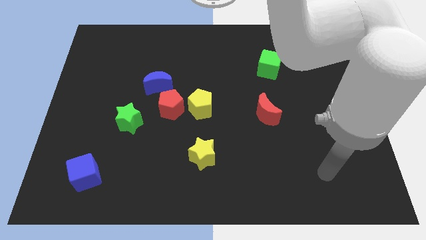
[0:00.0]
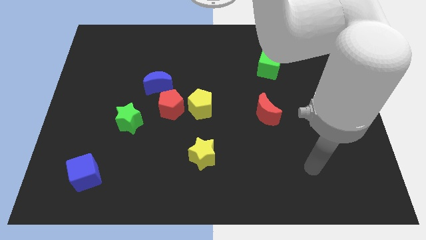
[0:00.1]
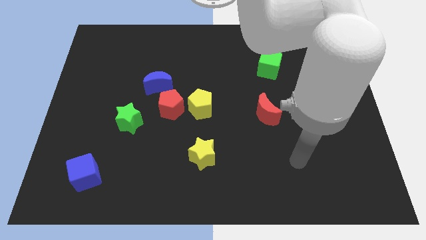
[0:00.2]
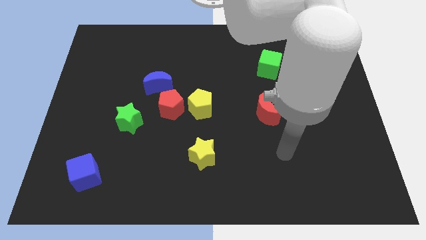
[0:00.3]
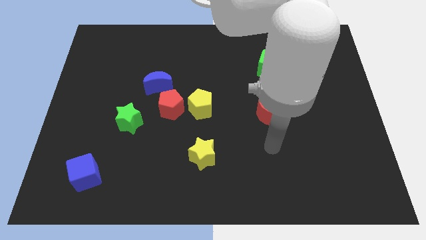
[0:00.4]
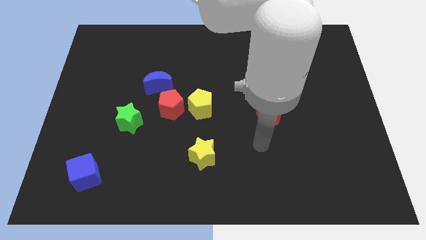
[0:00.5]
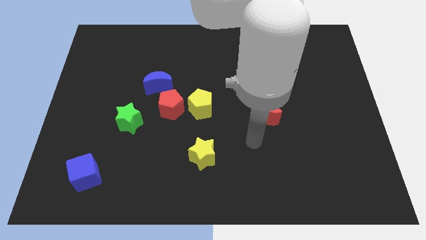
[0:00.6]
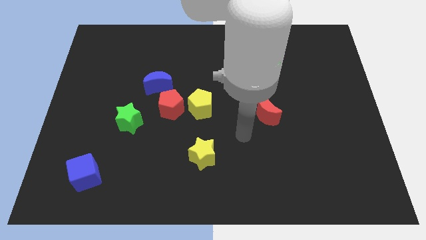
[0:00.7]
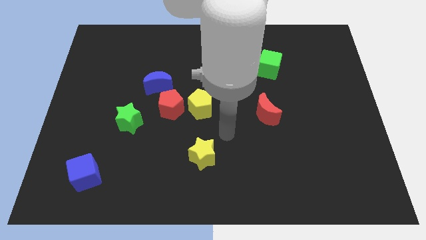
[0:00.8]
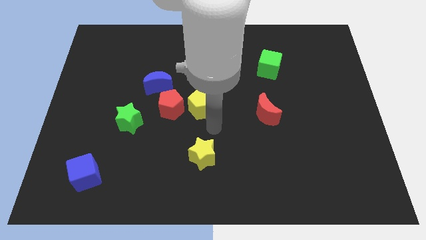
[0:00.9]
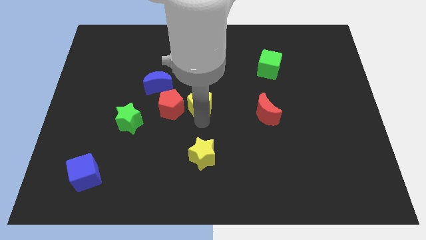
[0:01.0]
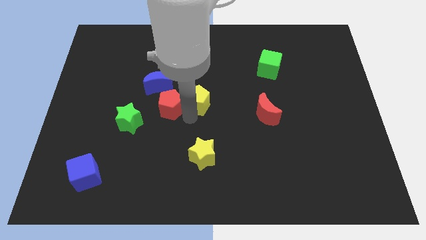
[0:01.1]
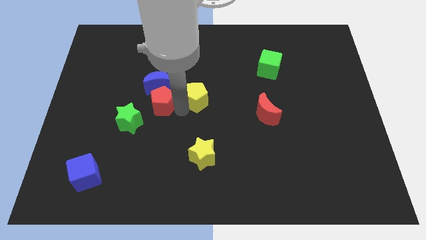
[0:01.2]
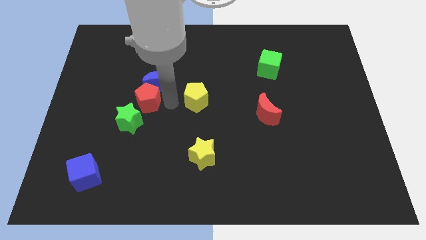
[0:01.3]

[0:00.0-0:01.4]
pull the yellow pentagon apart from the red pentagon

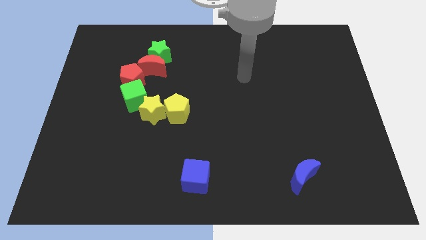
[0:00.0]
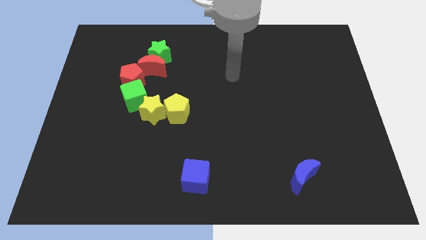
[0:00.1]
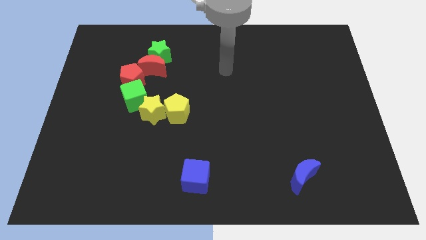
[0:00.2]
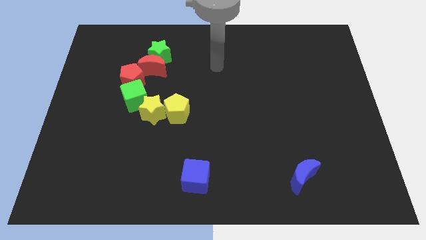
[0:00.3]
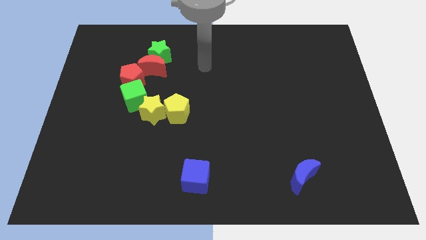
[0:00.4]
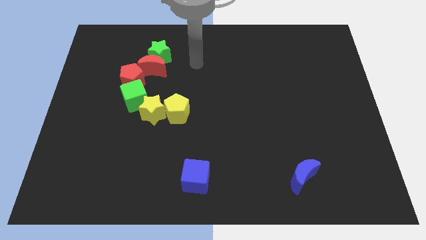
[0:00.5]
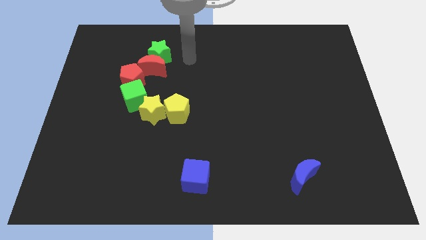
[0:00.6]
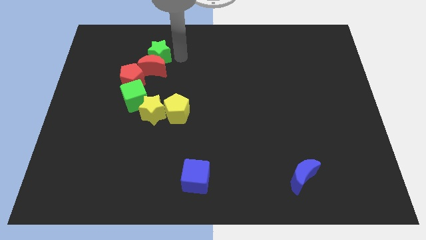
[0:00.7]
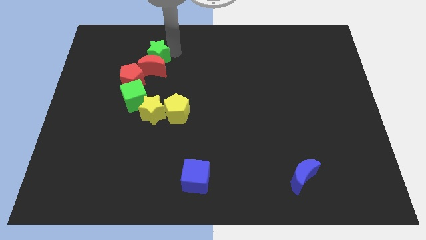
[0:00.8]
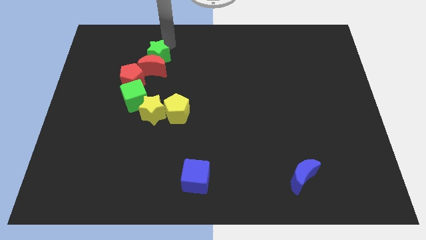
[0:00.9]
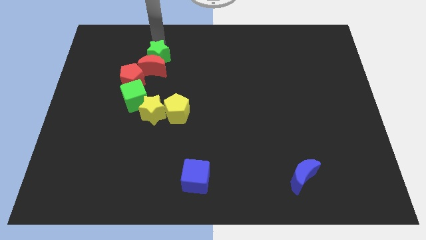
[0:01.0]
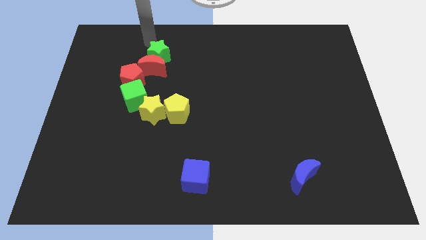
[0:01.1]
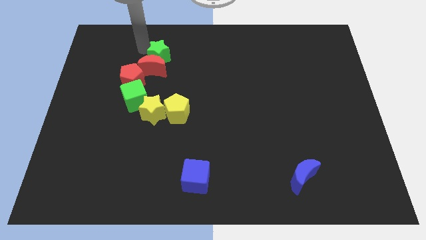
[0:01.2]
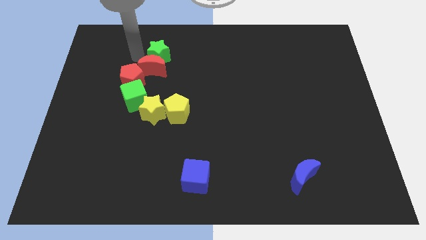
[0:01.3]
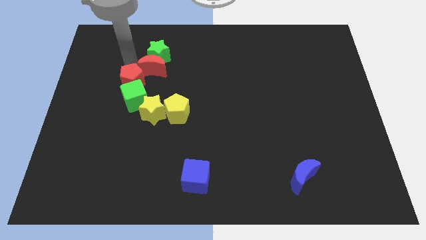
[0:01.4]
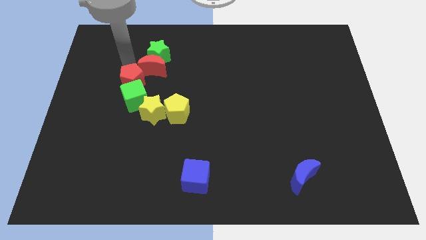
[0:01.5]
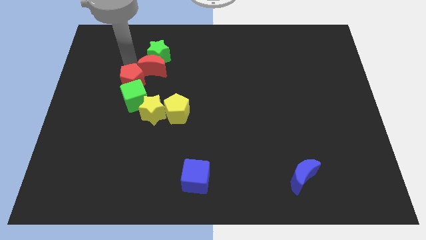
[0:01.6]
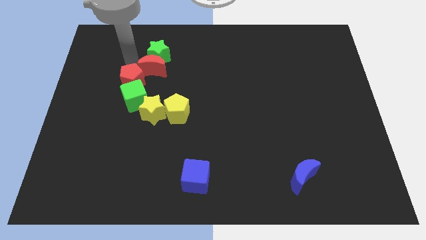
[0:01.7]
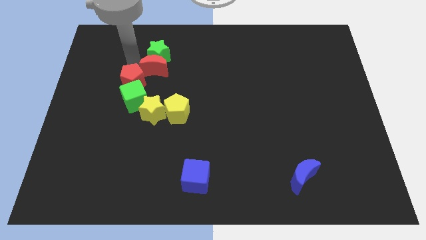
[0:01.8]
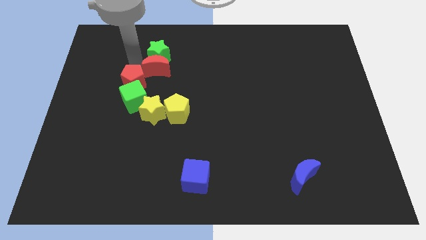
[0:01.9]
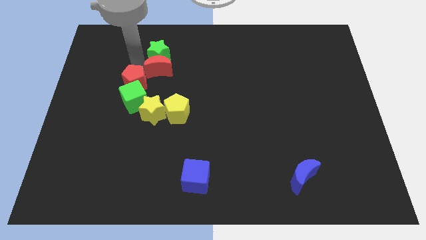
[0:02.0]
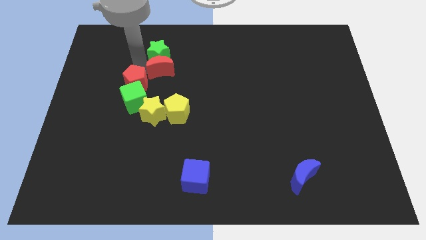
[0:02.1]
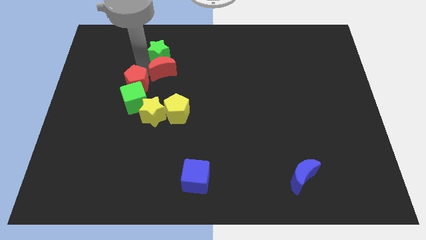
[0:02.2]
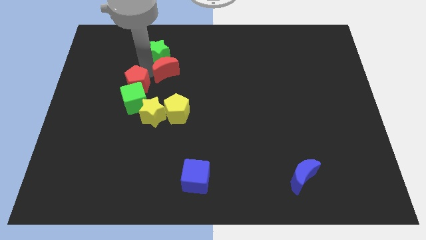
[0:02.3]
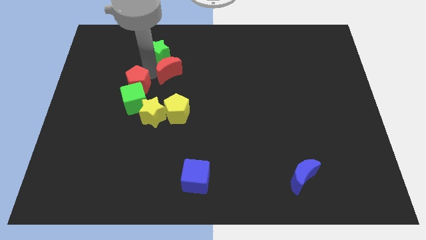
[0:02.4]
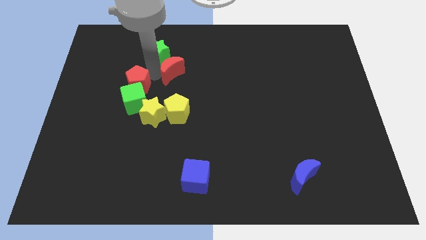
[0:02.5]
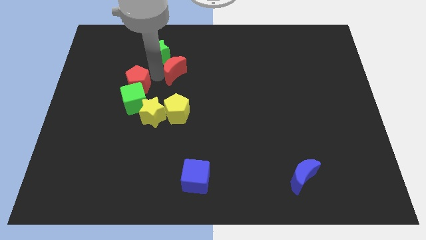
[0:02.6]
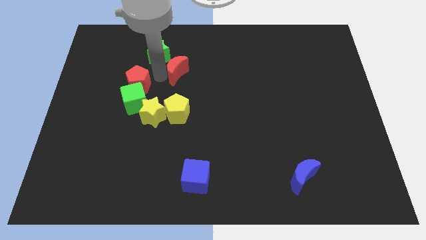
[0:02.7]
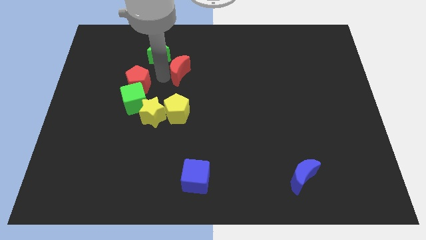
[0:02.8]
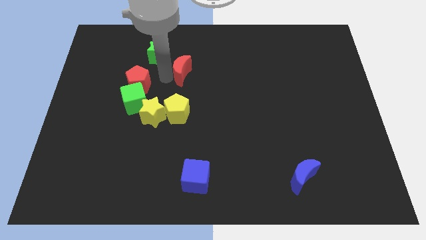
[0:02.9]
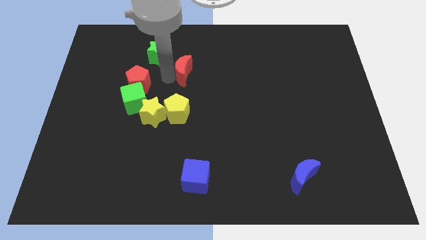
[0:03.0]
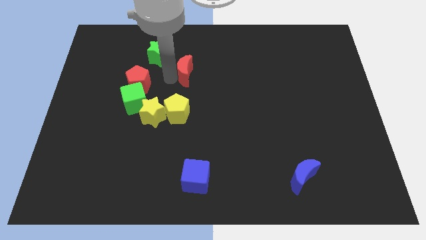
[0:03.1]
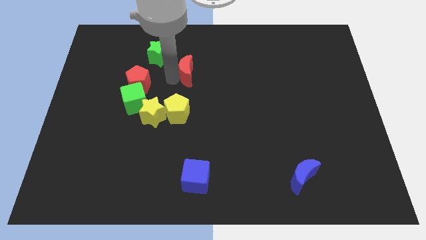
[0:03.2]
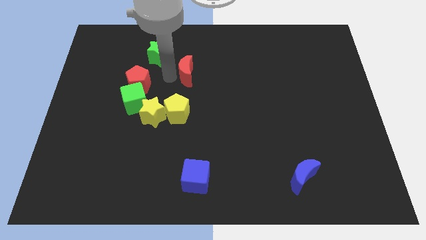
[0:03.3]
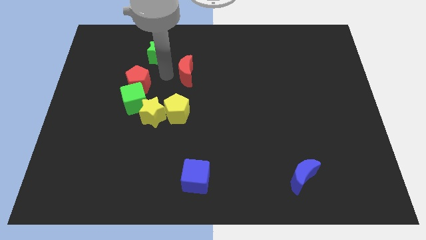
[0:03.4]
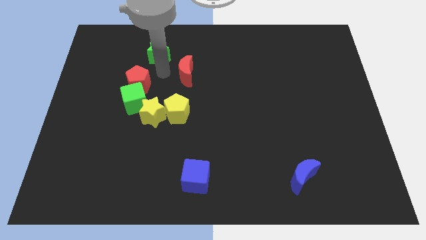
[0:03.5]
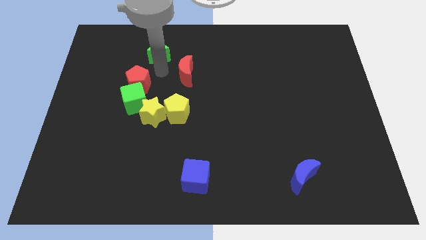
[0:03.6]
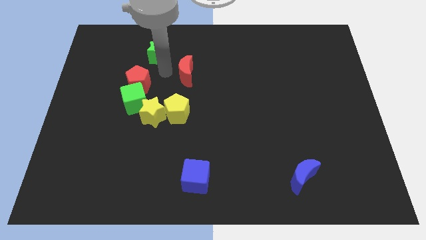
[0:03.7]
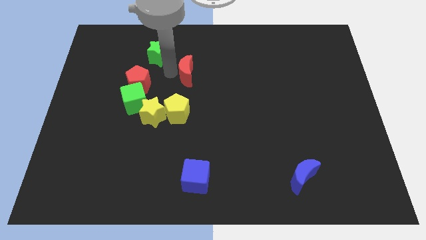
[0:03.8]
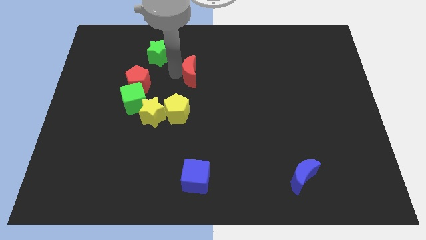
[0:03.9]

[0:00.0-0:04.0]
pull the red moon apart from the green star and red pentagon

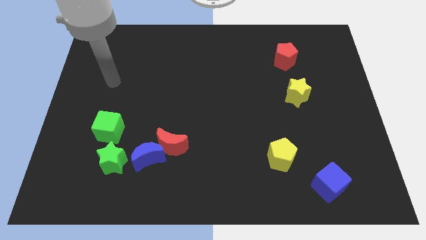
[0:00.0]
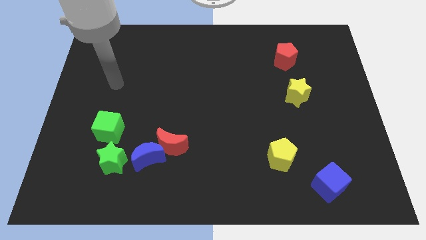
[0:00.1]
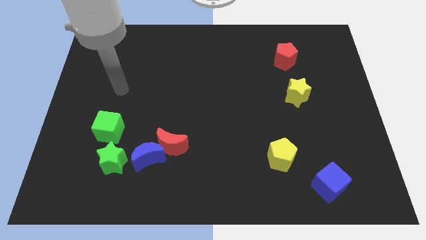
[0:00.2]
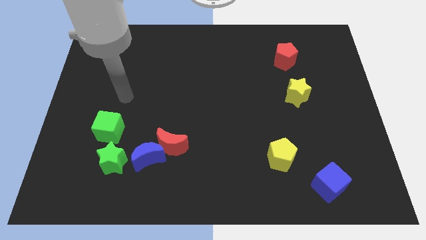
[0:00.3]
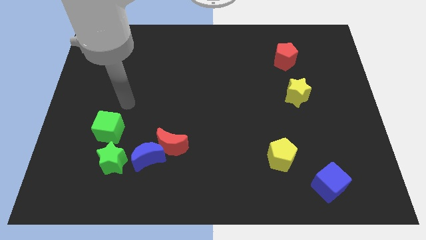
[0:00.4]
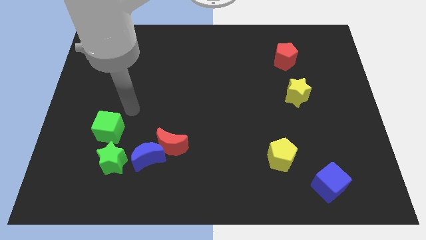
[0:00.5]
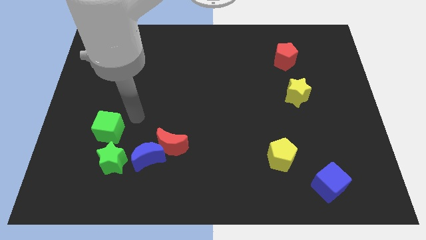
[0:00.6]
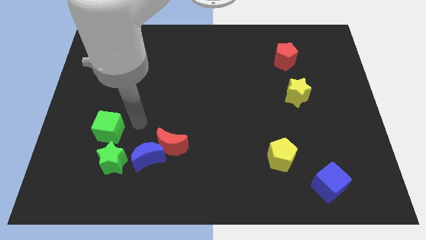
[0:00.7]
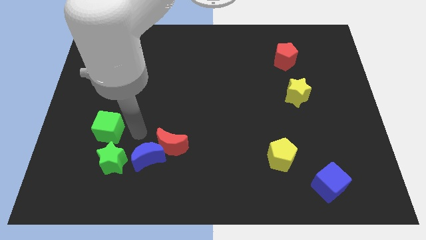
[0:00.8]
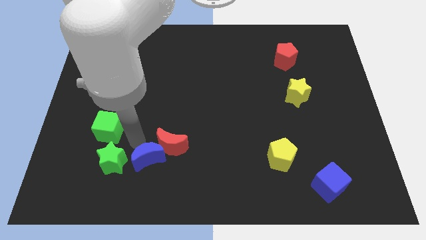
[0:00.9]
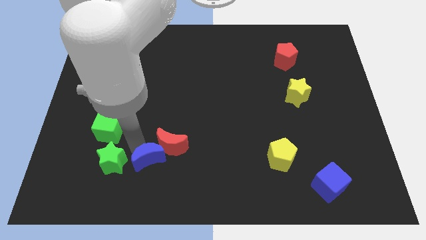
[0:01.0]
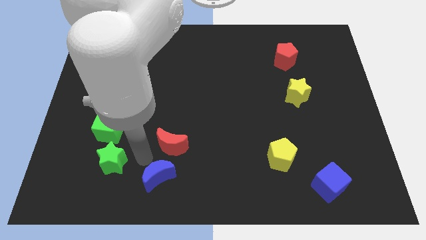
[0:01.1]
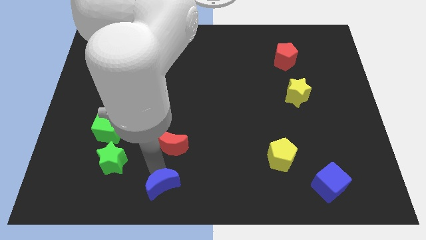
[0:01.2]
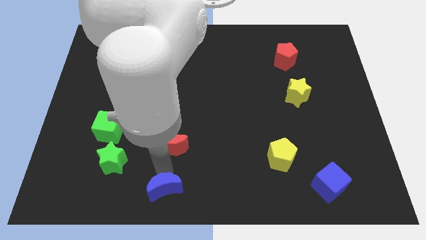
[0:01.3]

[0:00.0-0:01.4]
separate the red moon from the blue moon

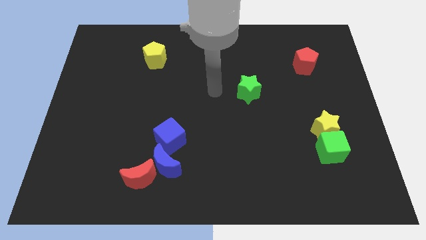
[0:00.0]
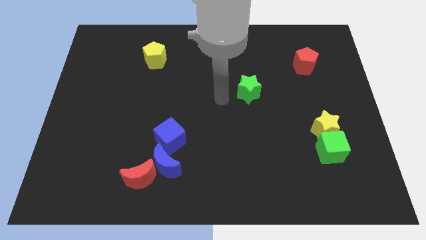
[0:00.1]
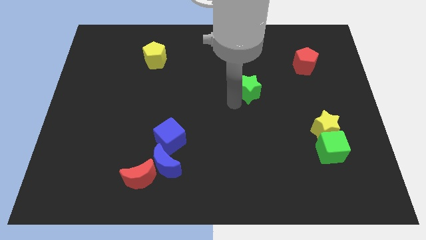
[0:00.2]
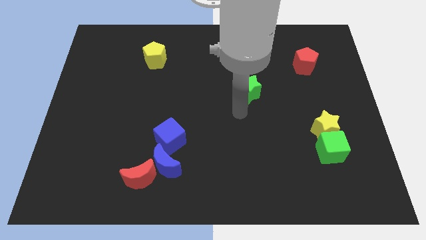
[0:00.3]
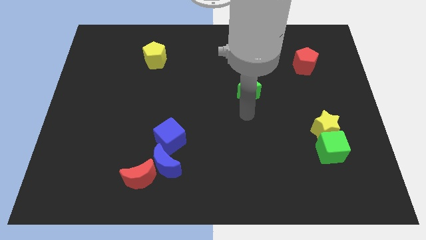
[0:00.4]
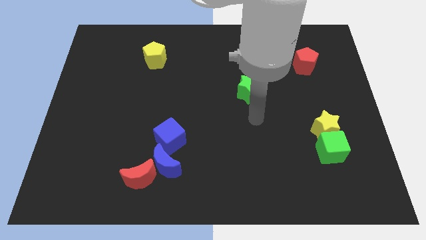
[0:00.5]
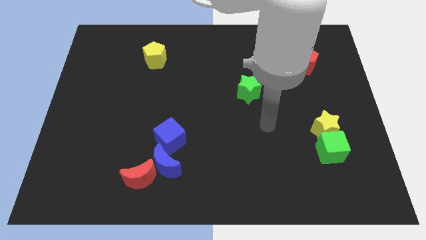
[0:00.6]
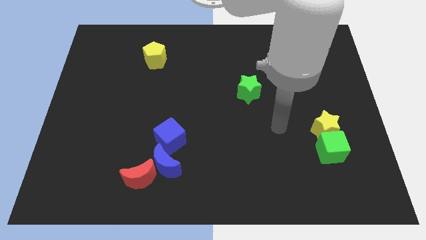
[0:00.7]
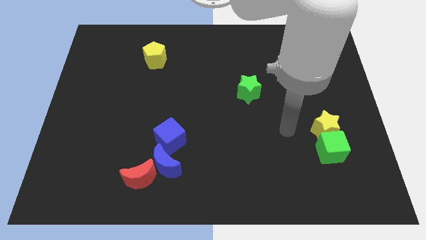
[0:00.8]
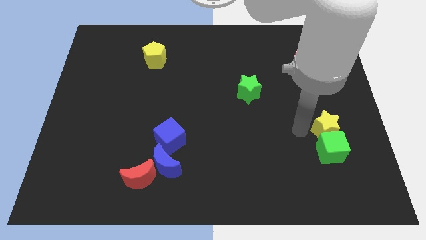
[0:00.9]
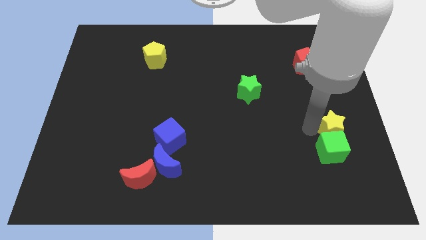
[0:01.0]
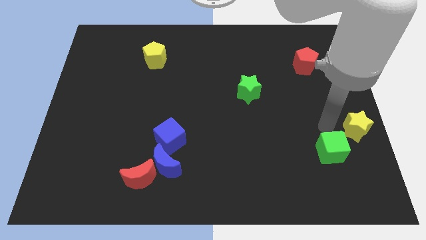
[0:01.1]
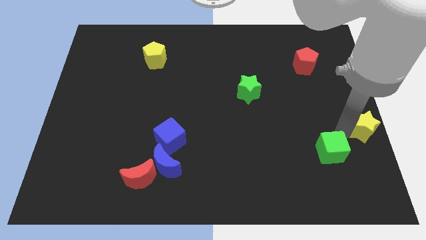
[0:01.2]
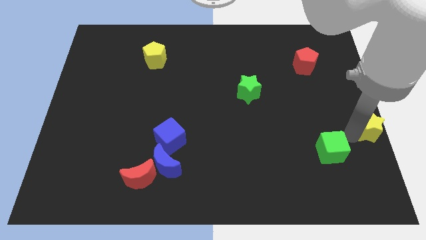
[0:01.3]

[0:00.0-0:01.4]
move the green cube away from the yellow star

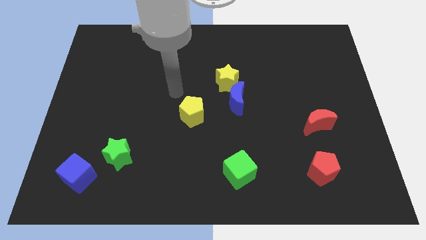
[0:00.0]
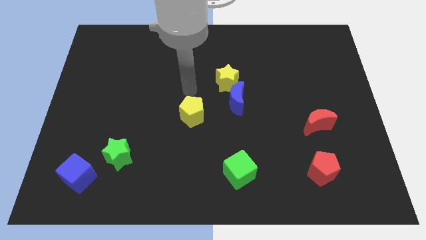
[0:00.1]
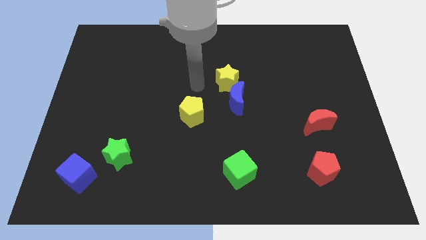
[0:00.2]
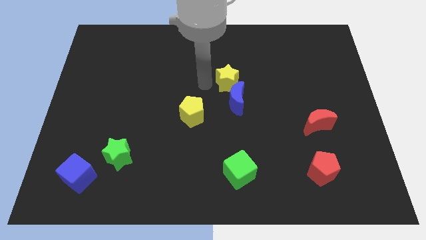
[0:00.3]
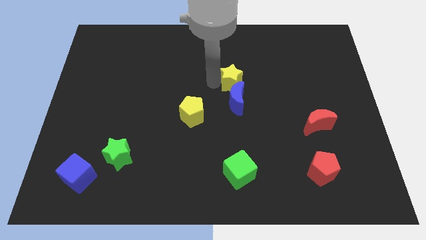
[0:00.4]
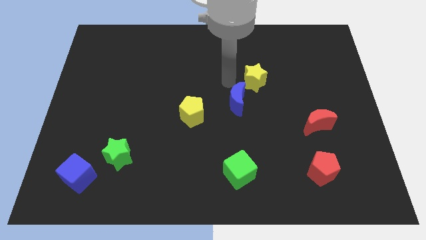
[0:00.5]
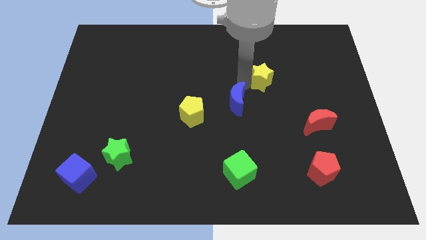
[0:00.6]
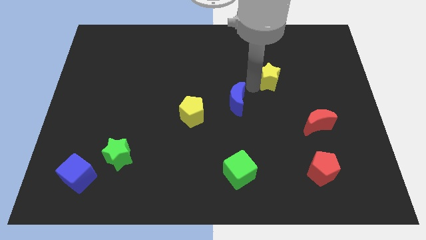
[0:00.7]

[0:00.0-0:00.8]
separate the blue moon from the yellow star

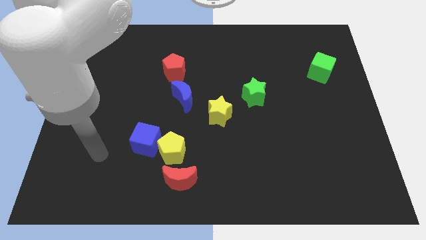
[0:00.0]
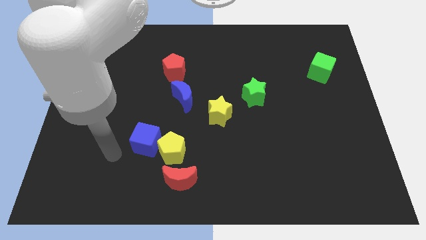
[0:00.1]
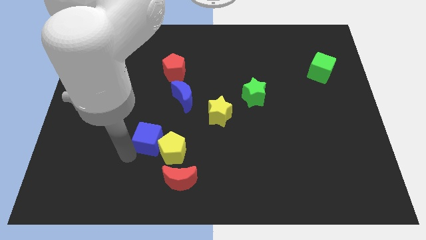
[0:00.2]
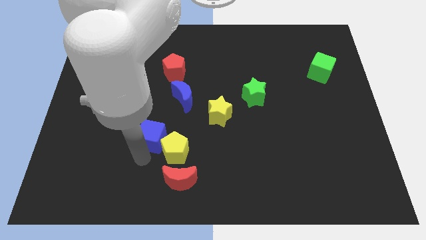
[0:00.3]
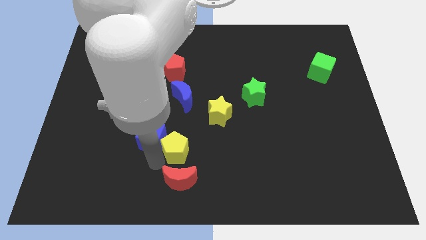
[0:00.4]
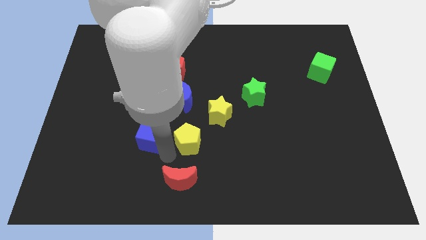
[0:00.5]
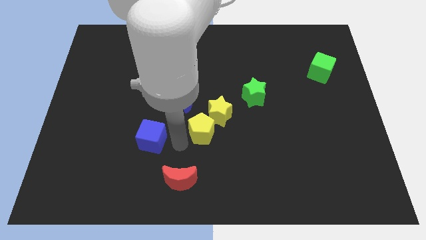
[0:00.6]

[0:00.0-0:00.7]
pull the blue cube apart from the yellow pentagon
